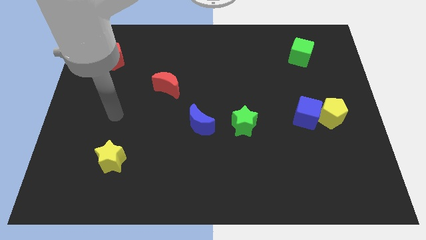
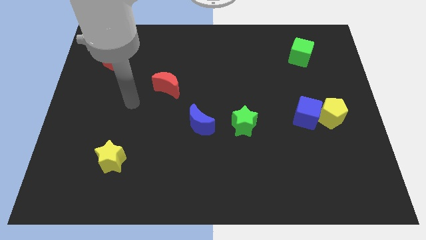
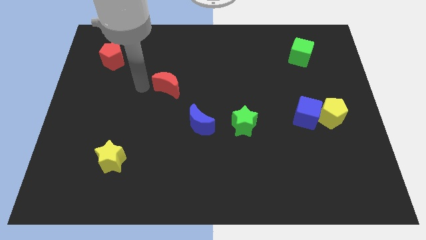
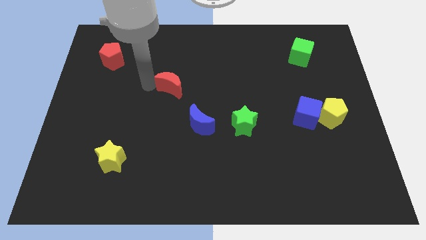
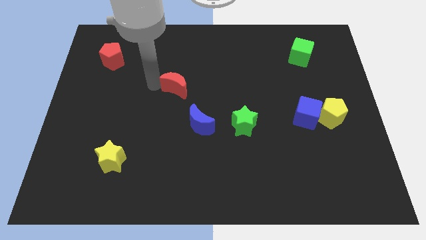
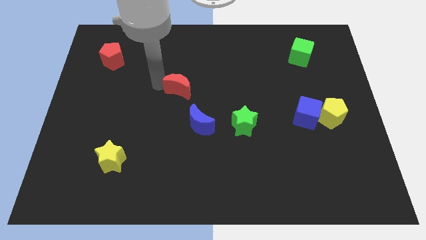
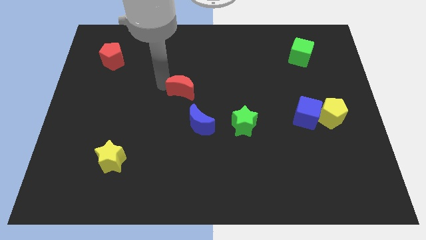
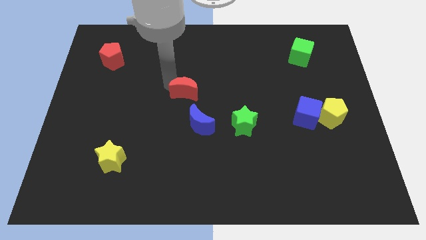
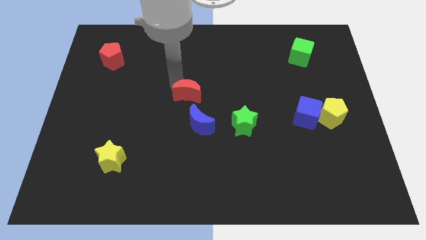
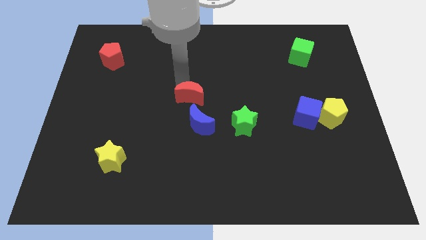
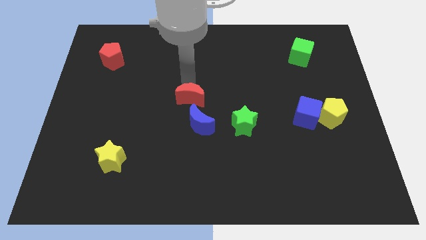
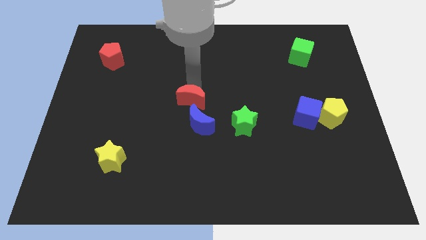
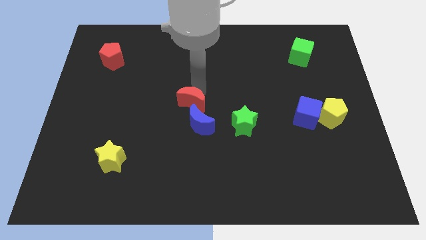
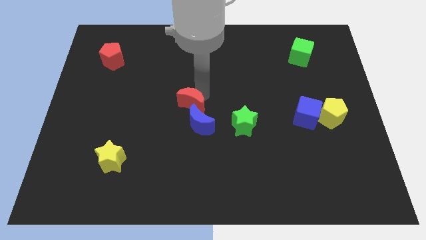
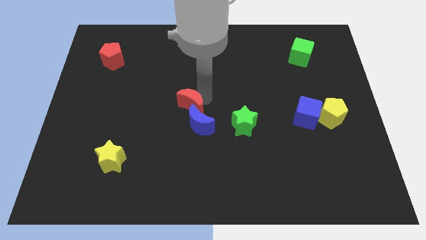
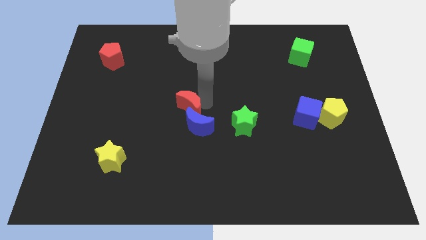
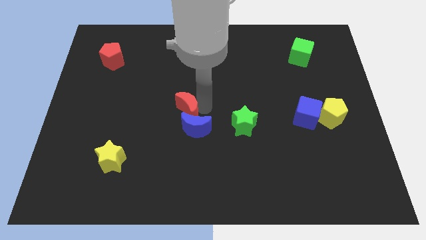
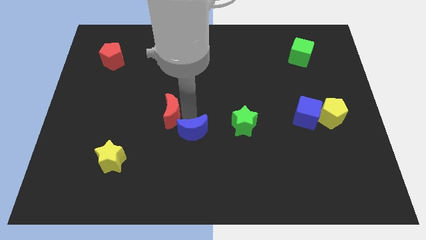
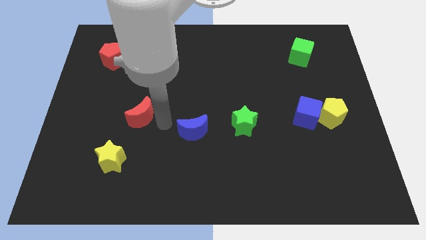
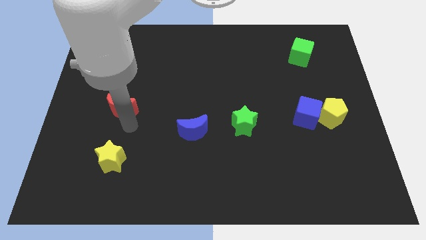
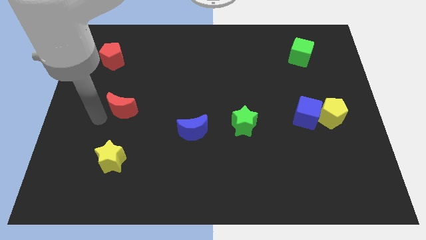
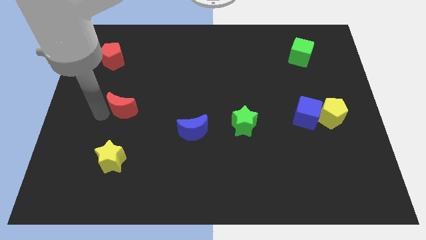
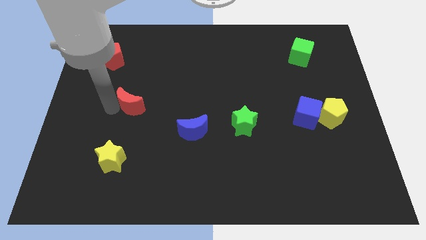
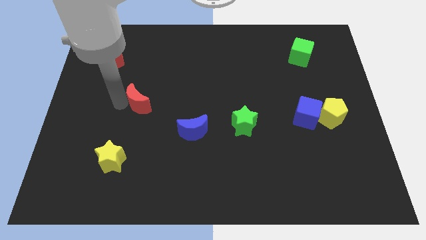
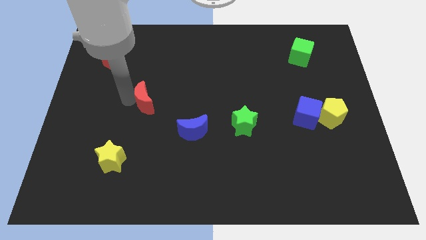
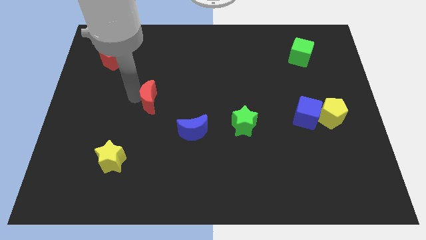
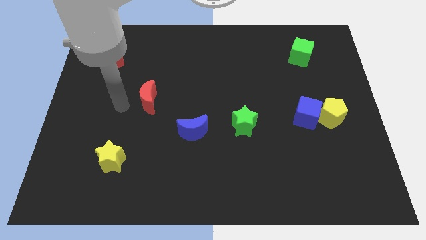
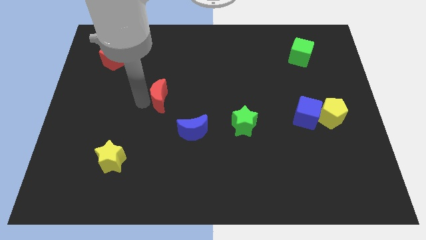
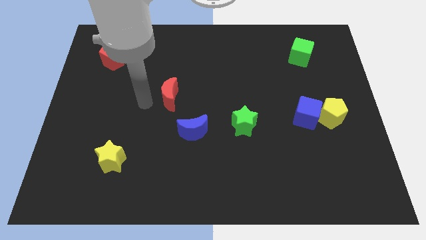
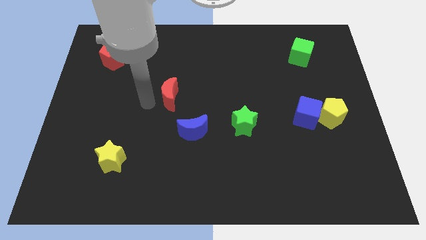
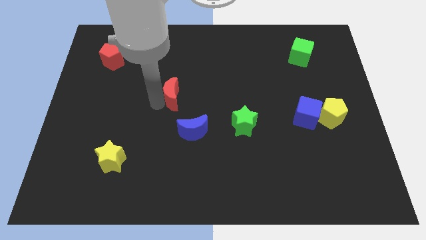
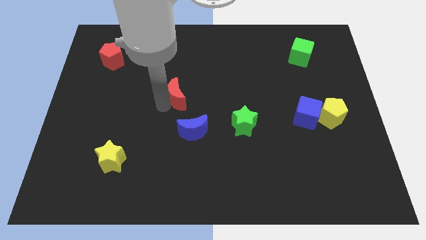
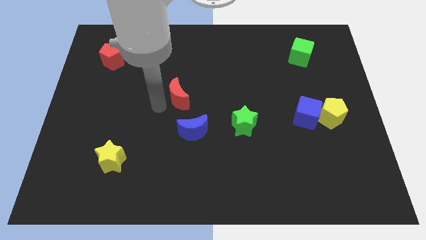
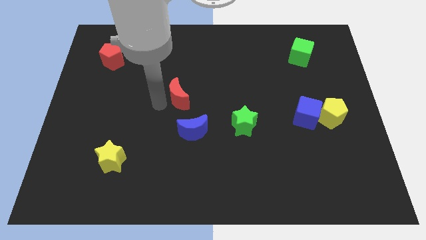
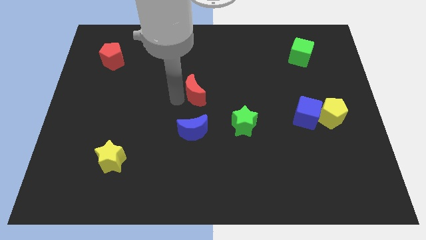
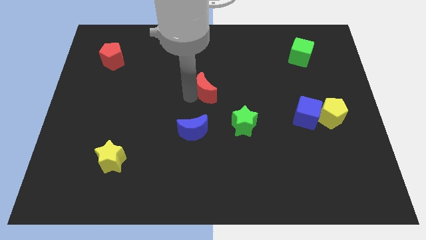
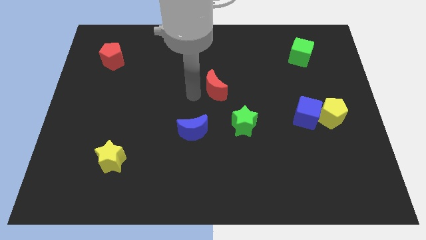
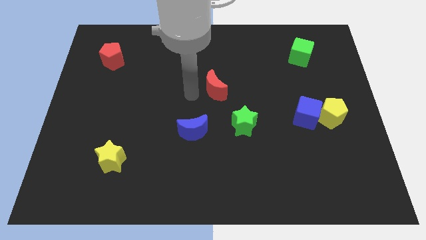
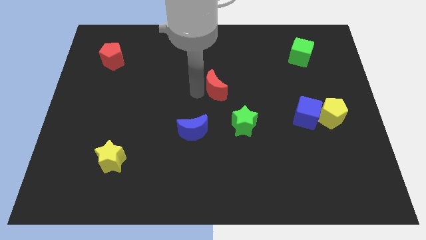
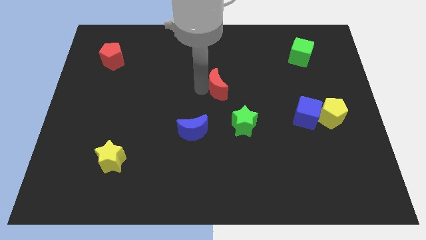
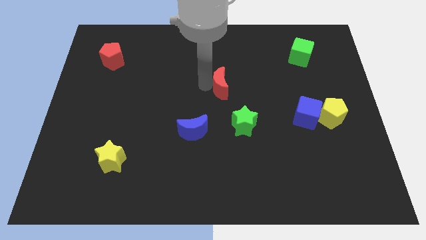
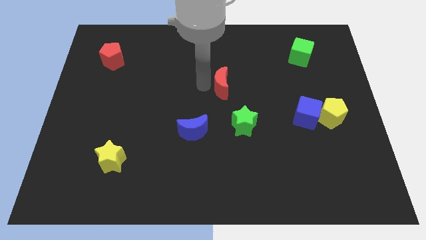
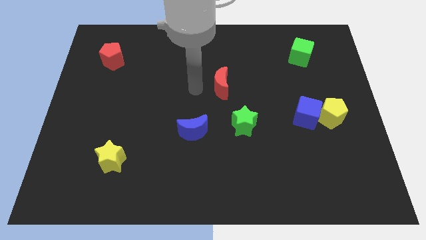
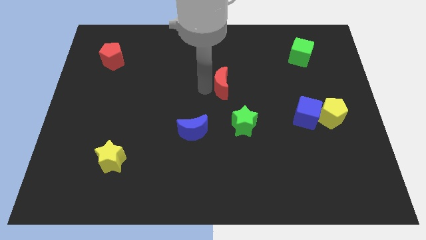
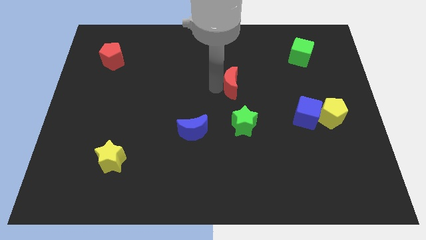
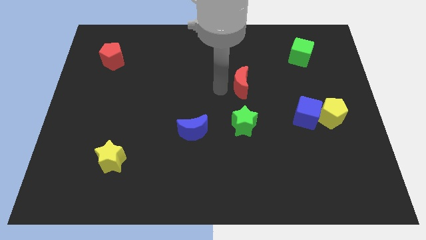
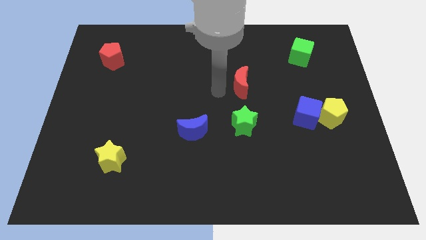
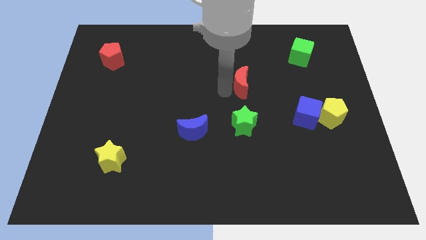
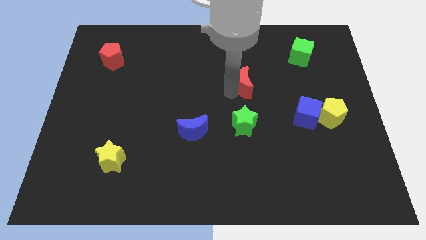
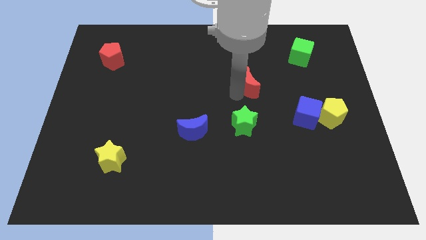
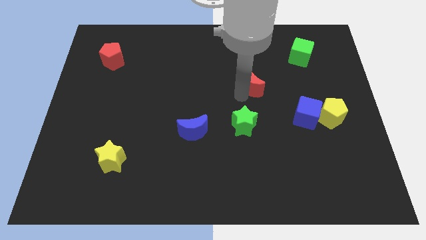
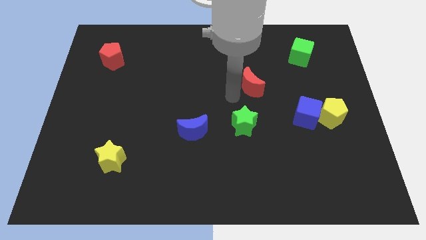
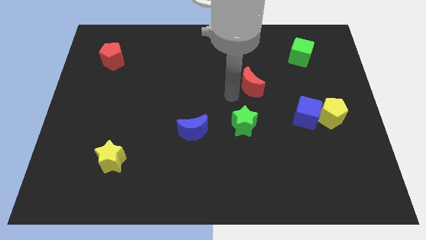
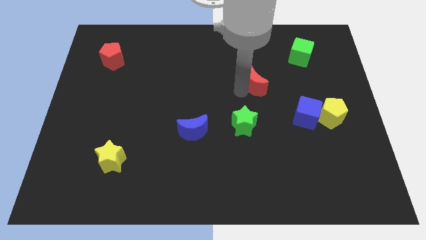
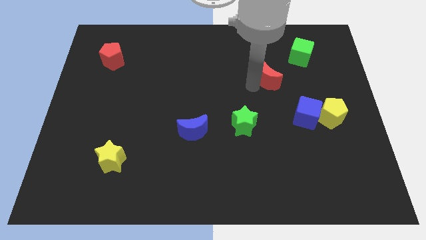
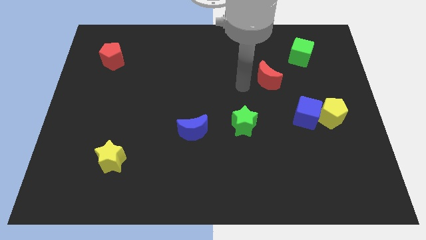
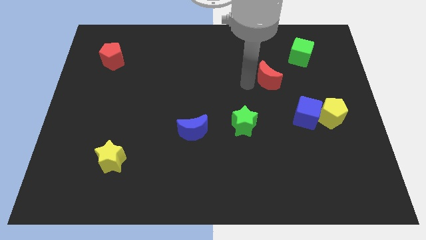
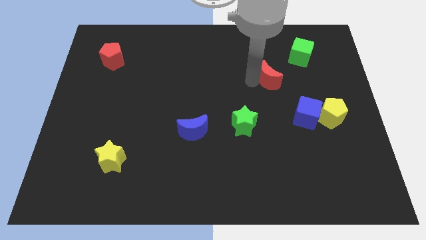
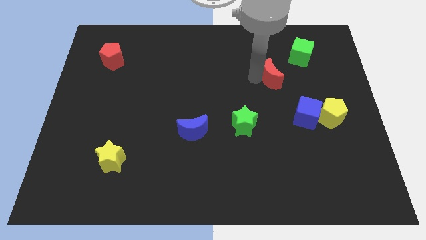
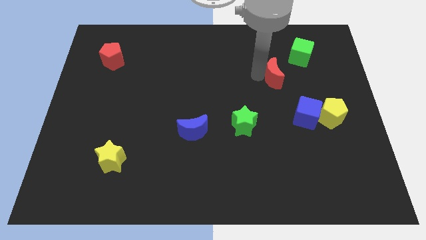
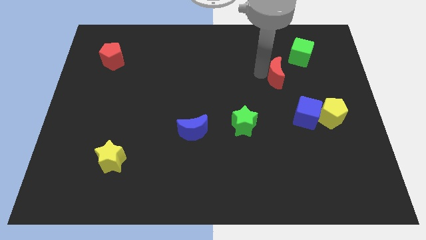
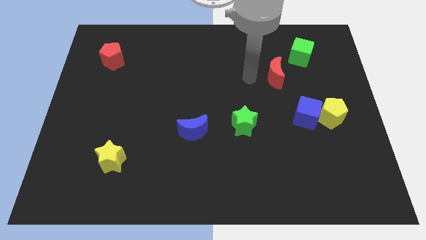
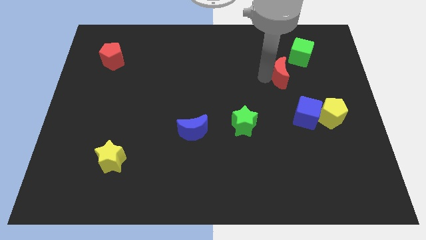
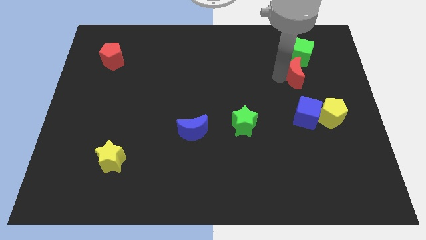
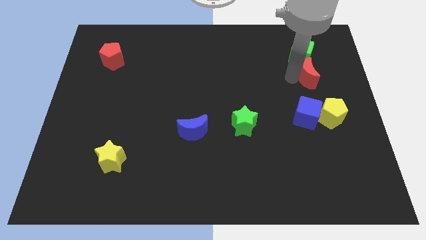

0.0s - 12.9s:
slide the red moon to the bottom right of the green cube

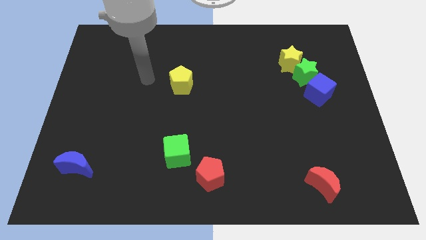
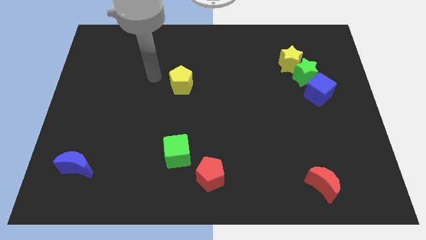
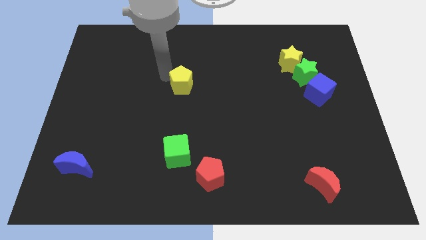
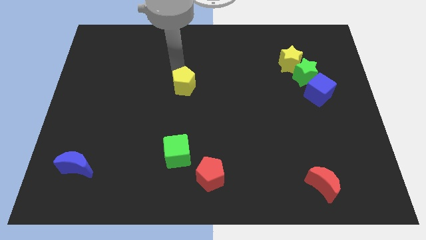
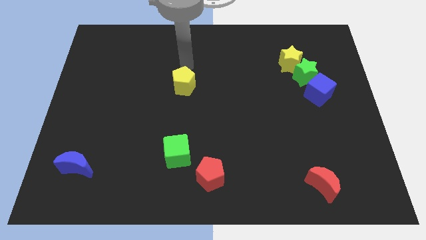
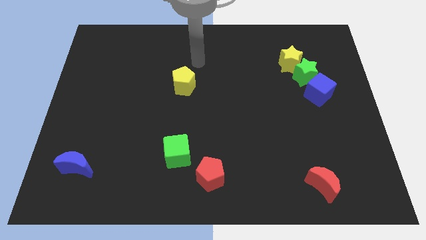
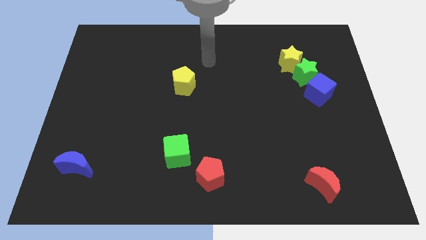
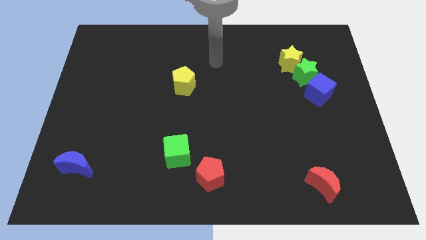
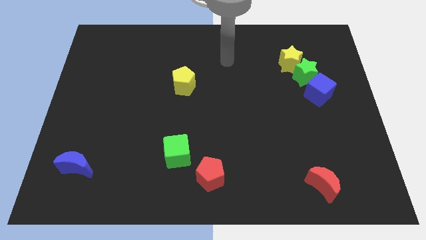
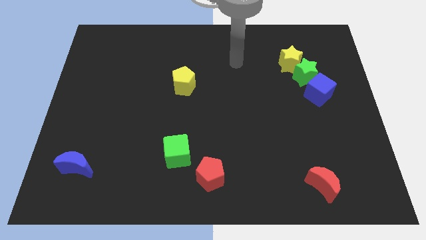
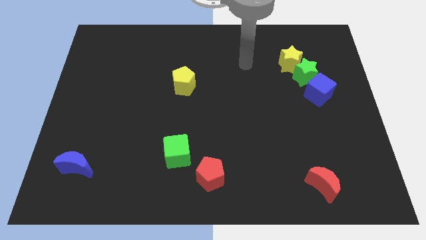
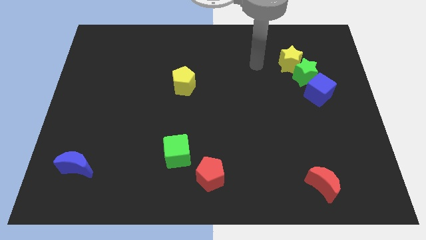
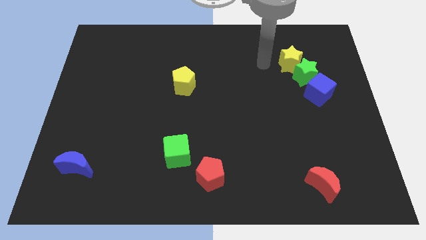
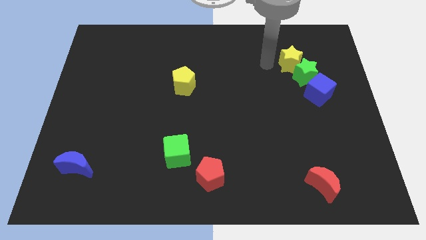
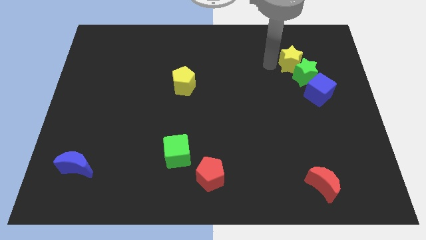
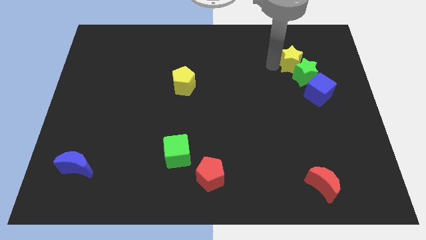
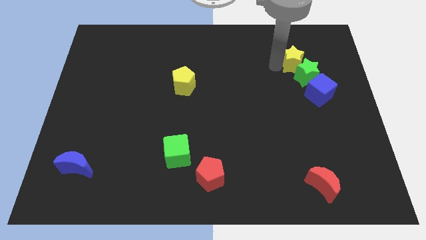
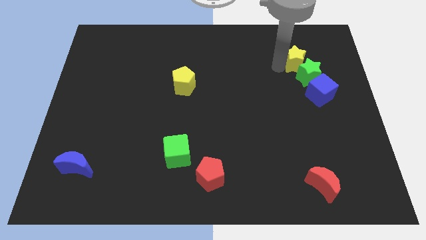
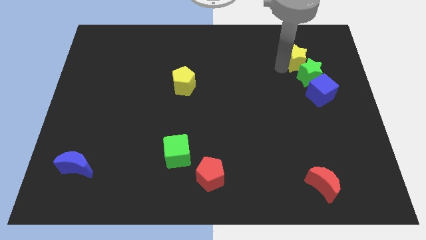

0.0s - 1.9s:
move the yellow star to the top of the blue cube
